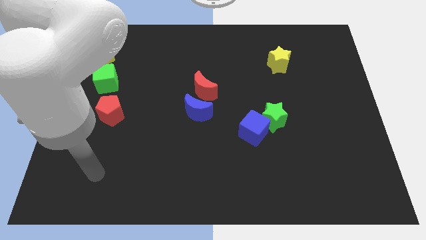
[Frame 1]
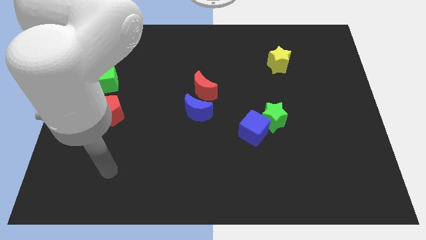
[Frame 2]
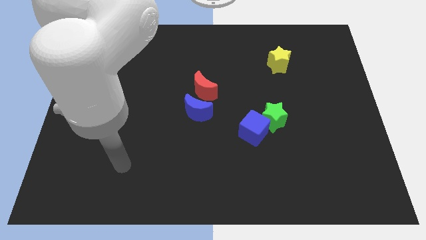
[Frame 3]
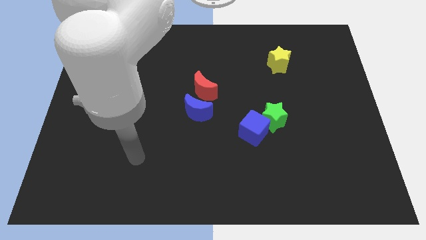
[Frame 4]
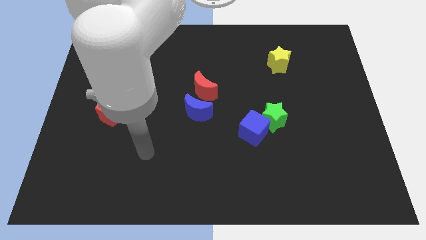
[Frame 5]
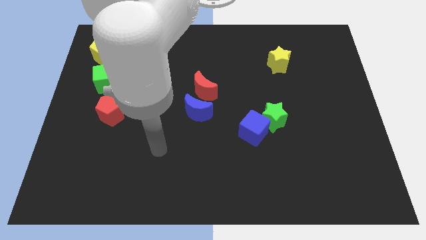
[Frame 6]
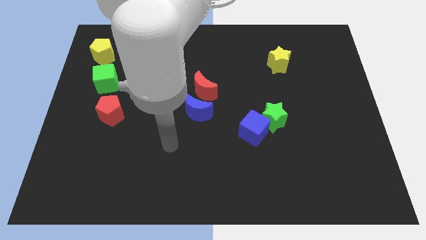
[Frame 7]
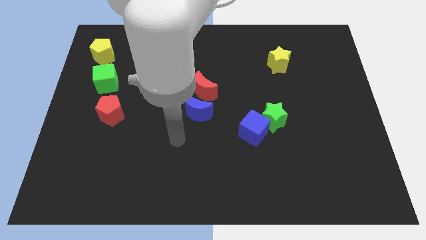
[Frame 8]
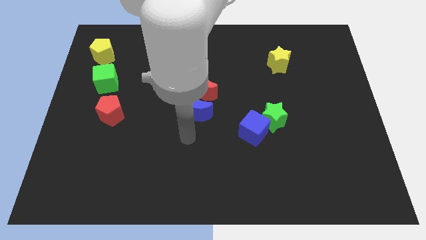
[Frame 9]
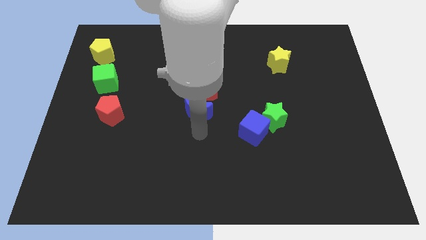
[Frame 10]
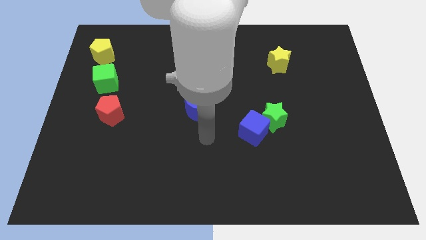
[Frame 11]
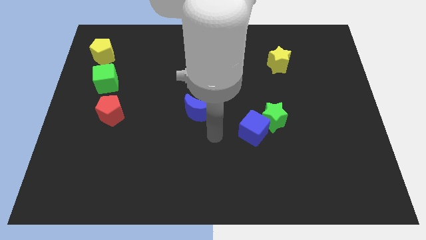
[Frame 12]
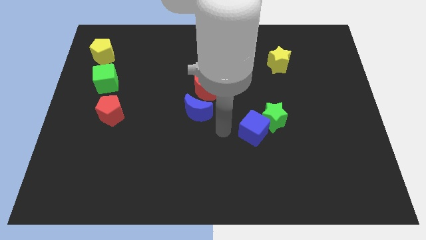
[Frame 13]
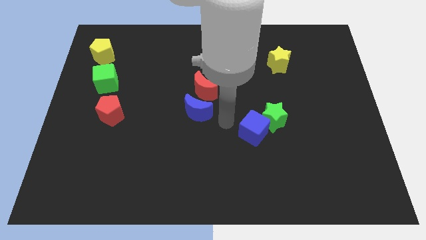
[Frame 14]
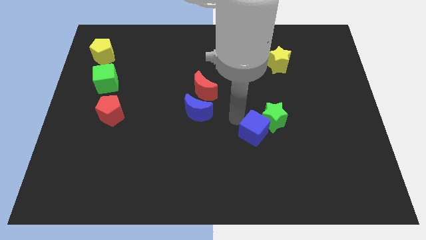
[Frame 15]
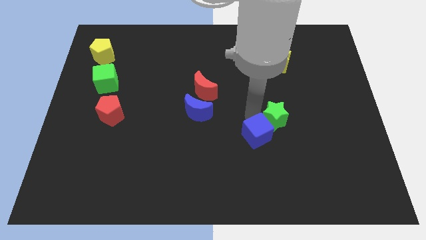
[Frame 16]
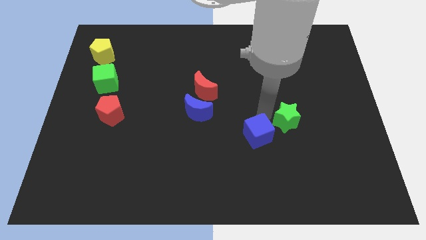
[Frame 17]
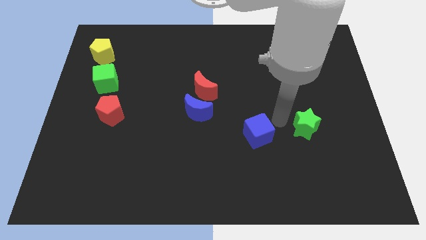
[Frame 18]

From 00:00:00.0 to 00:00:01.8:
pull the blue cube apart from the green star

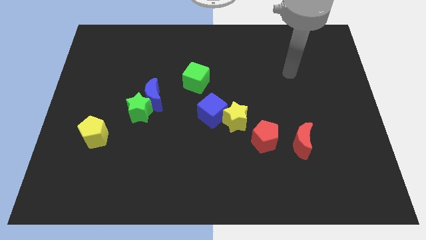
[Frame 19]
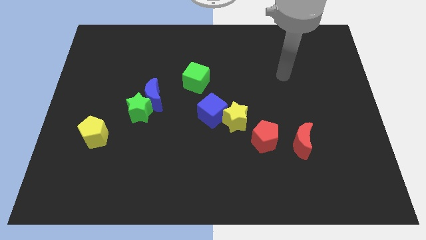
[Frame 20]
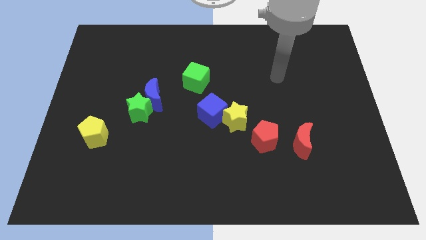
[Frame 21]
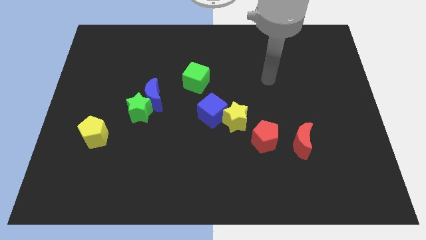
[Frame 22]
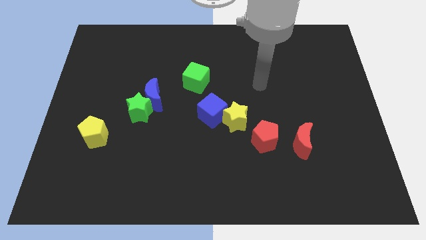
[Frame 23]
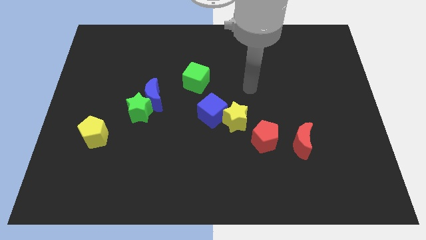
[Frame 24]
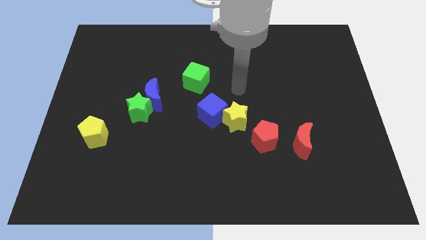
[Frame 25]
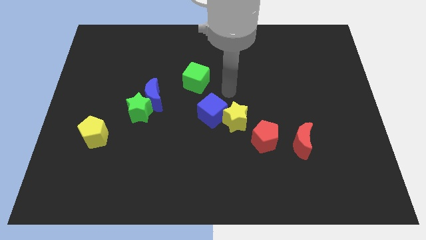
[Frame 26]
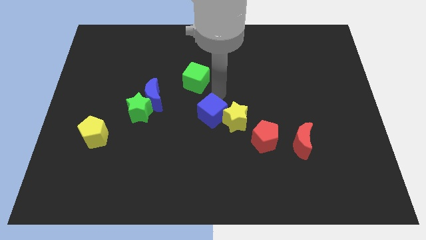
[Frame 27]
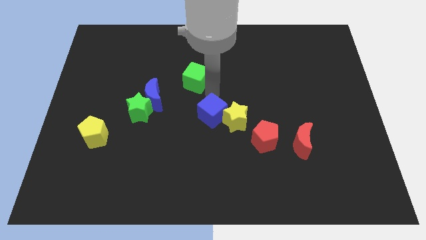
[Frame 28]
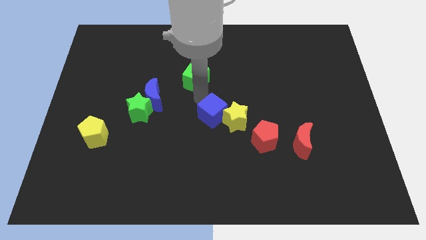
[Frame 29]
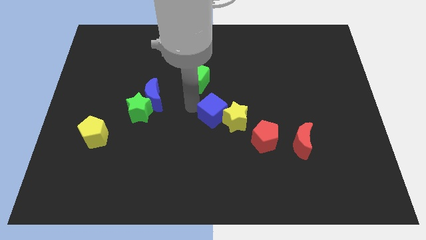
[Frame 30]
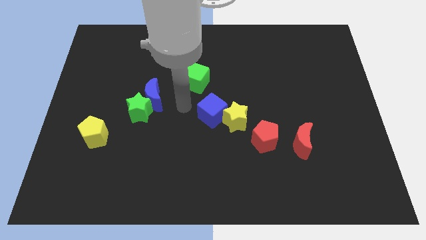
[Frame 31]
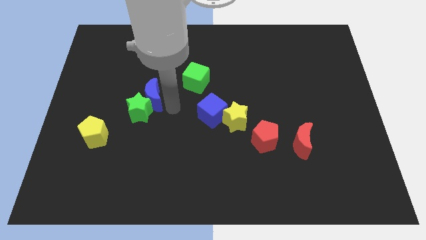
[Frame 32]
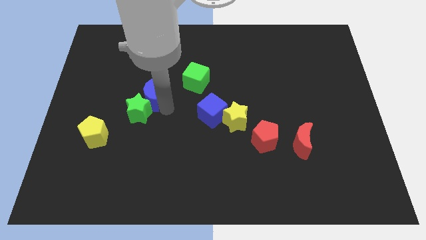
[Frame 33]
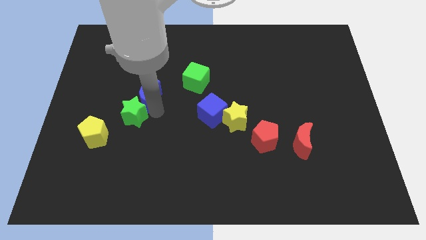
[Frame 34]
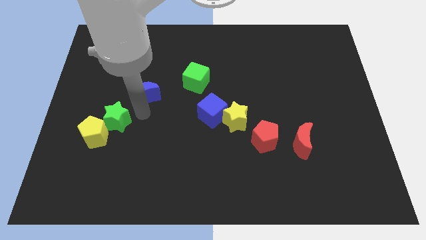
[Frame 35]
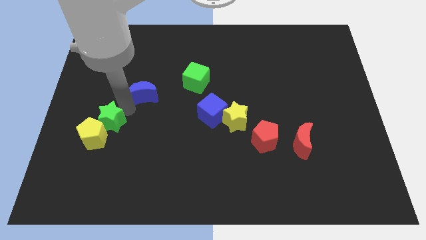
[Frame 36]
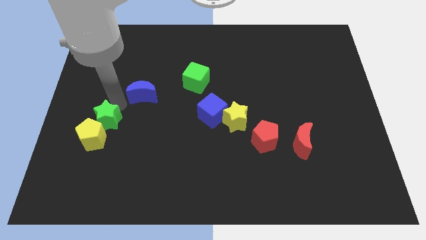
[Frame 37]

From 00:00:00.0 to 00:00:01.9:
pull the blue moon apart from the green star

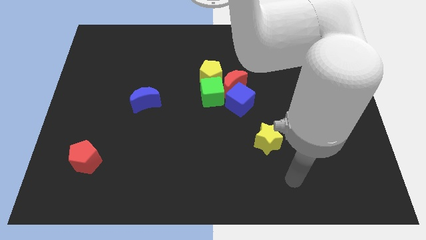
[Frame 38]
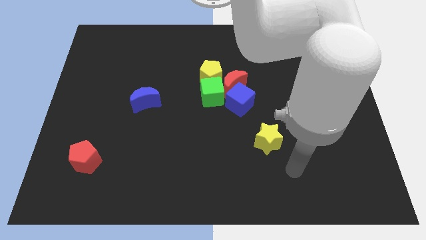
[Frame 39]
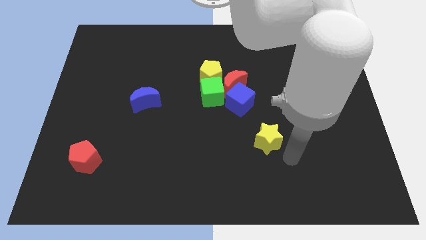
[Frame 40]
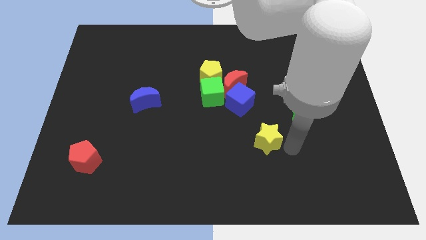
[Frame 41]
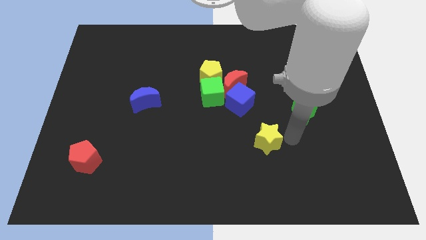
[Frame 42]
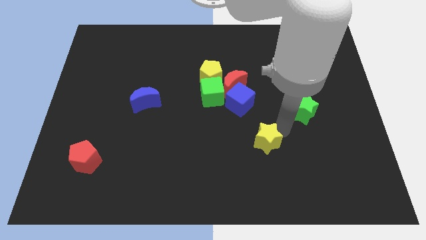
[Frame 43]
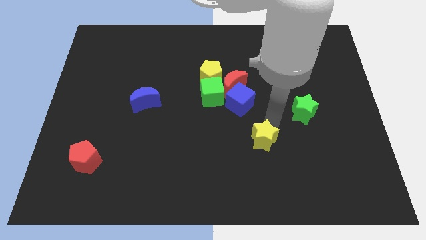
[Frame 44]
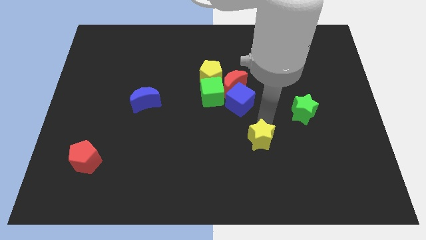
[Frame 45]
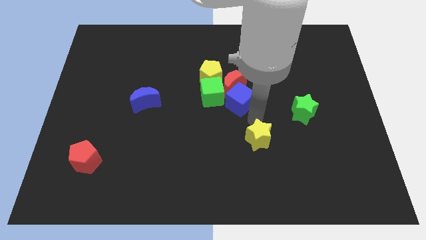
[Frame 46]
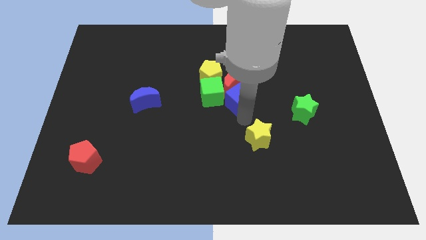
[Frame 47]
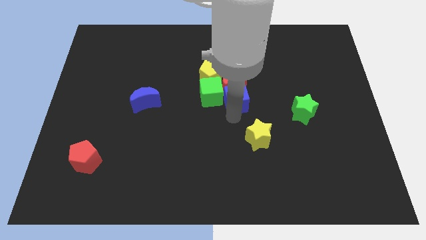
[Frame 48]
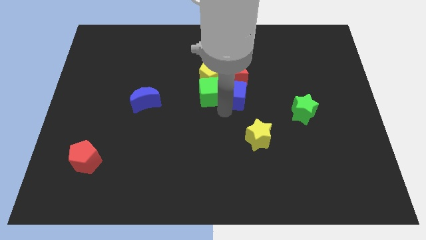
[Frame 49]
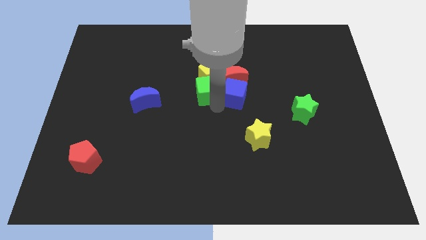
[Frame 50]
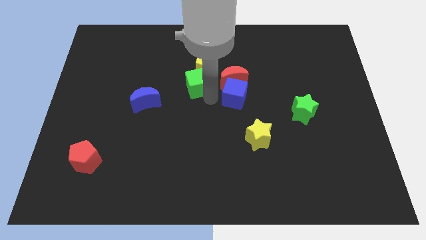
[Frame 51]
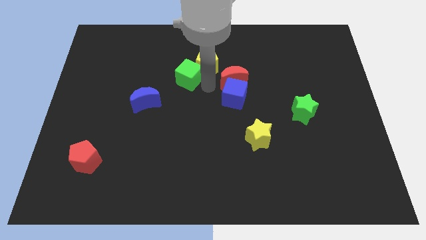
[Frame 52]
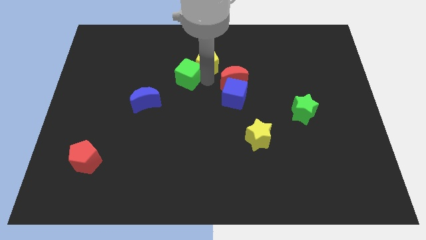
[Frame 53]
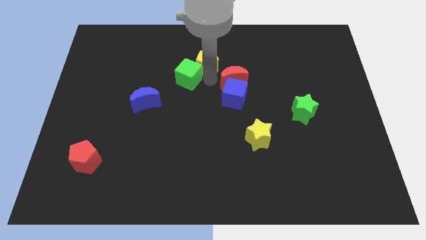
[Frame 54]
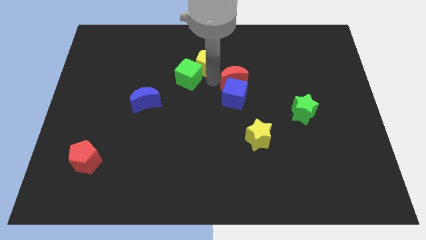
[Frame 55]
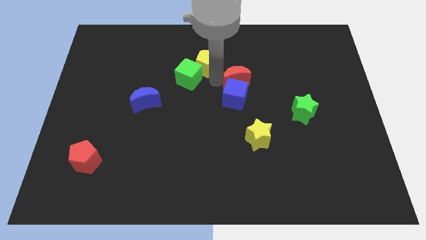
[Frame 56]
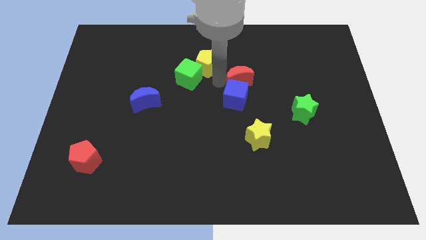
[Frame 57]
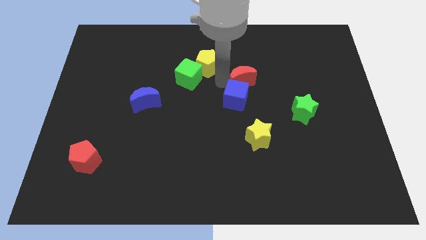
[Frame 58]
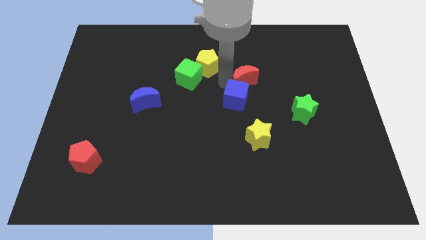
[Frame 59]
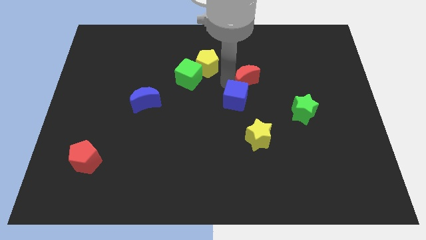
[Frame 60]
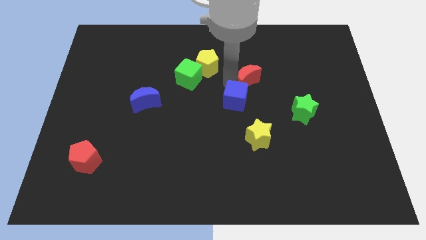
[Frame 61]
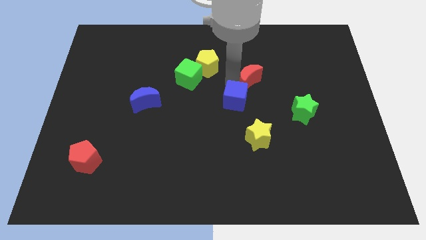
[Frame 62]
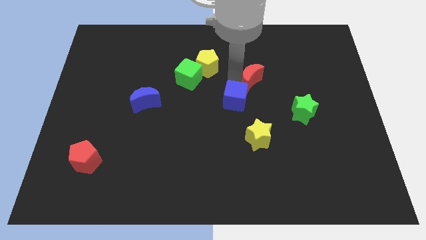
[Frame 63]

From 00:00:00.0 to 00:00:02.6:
separate the red moon from the blue cube, green cube, and yellow pentagon

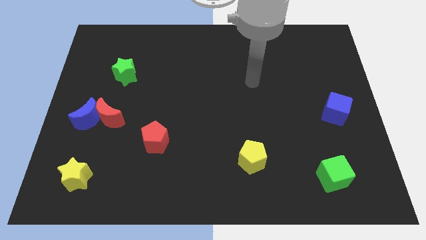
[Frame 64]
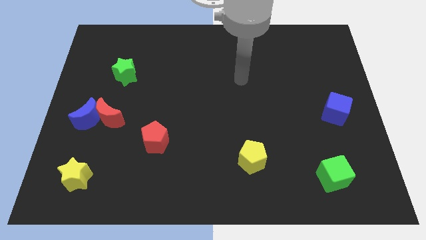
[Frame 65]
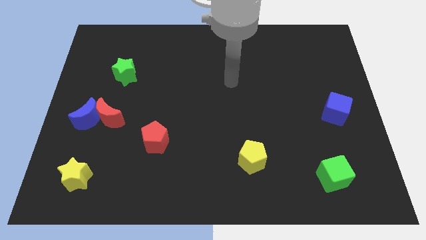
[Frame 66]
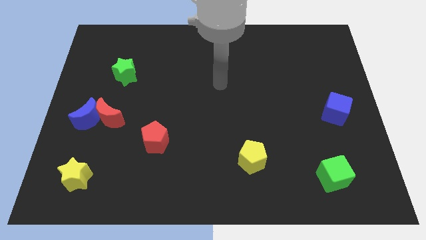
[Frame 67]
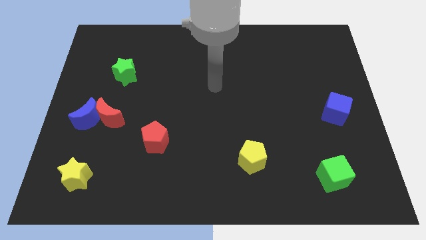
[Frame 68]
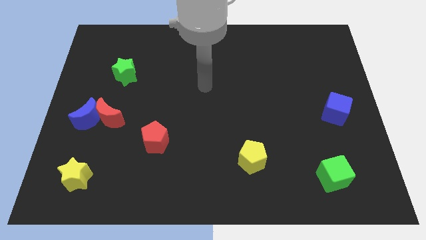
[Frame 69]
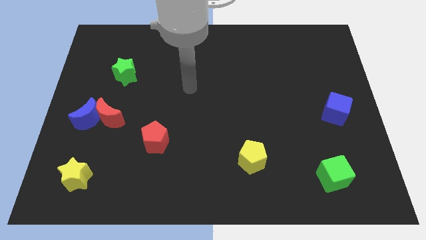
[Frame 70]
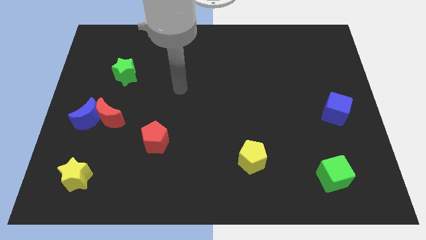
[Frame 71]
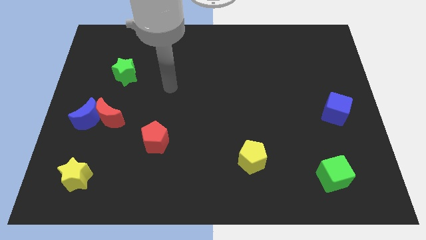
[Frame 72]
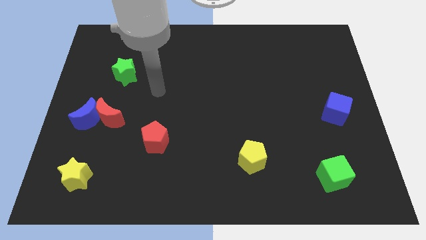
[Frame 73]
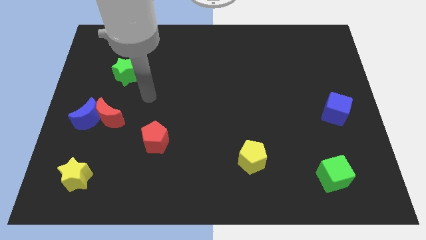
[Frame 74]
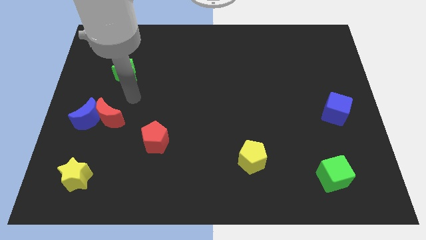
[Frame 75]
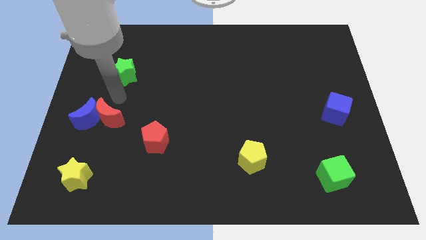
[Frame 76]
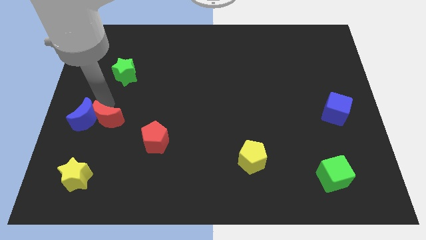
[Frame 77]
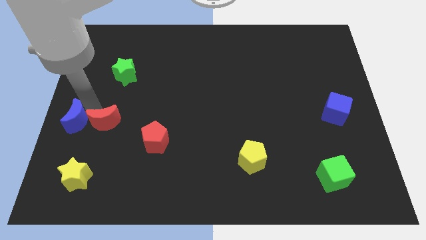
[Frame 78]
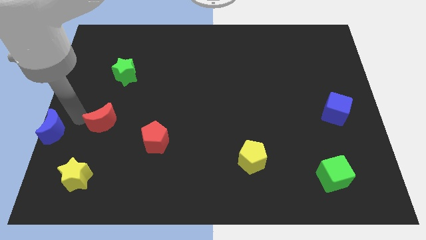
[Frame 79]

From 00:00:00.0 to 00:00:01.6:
pull the red moon apart from the blue moon

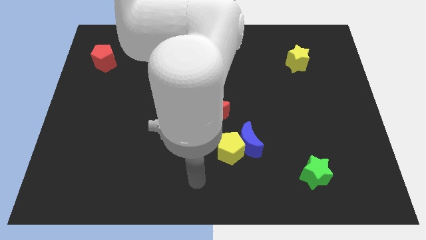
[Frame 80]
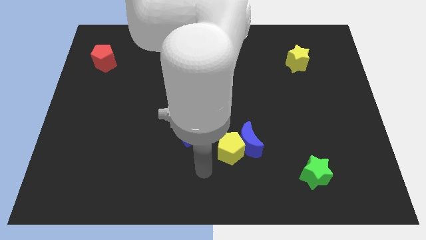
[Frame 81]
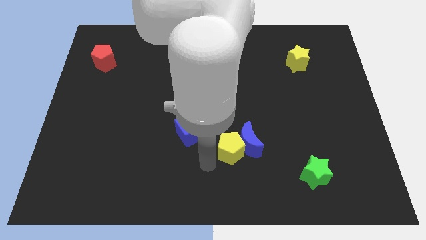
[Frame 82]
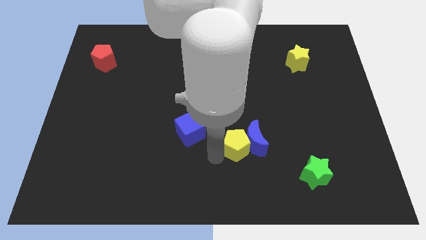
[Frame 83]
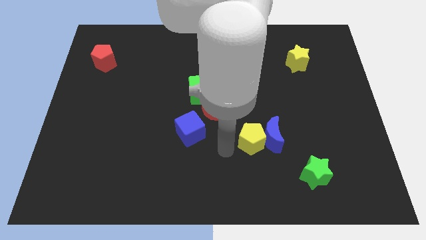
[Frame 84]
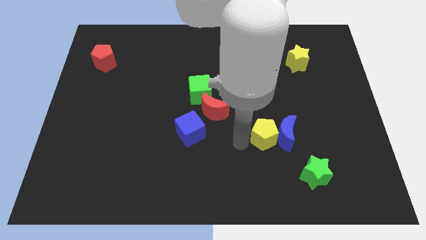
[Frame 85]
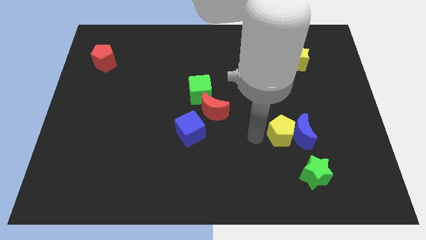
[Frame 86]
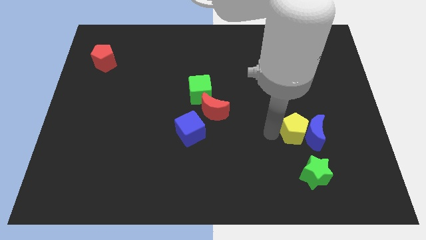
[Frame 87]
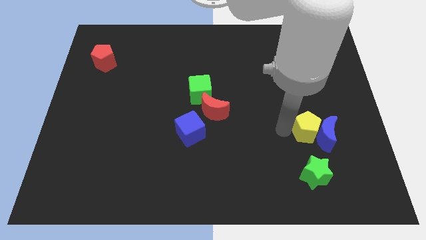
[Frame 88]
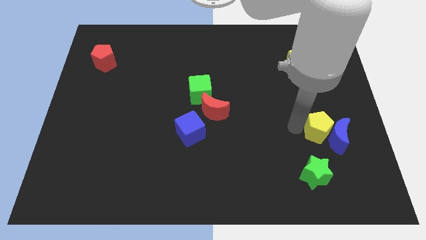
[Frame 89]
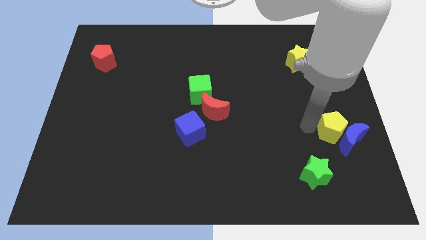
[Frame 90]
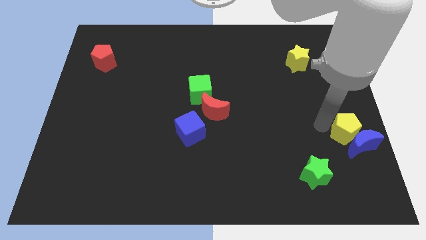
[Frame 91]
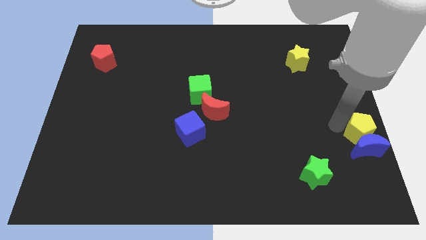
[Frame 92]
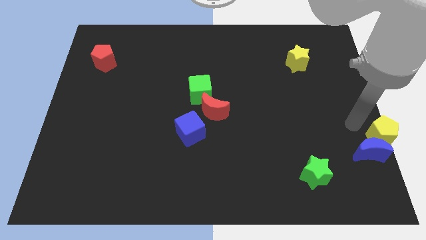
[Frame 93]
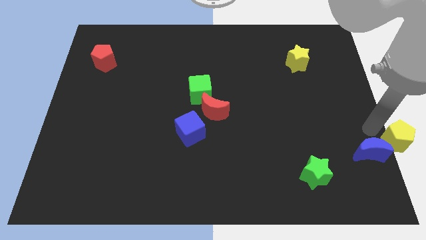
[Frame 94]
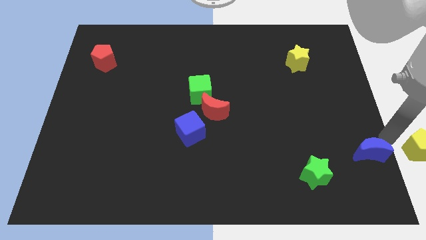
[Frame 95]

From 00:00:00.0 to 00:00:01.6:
separate the blue moon from the yellow pentagon
